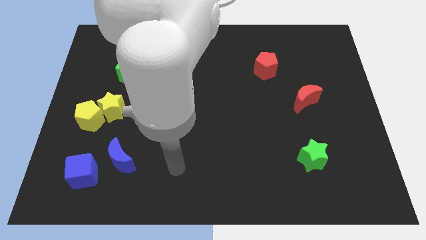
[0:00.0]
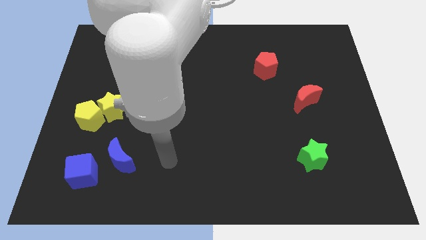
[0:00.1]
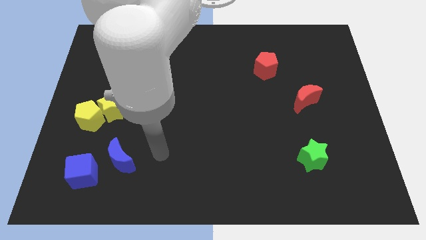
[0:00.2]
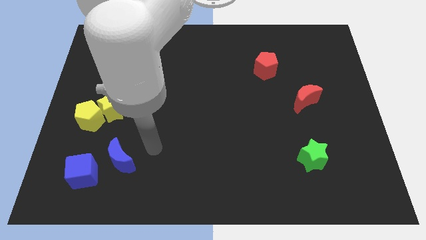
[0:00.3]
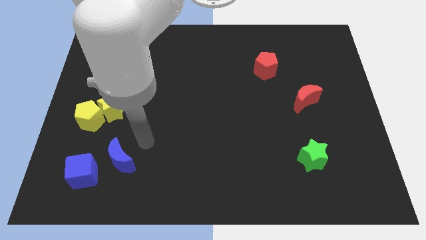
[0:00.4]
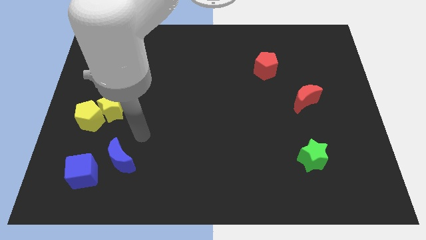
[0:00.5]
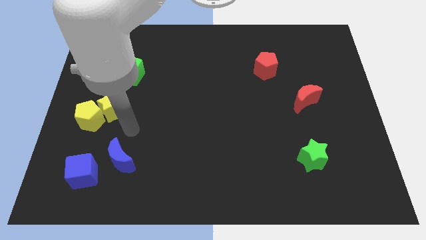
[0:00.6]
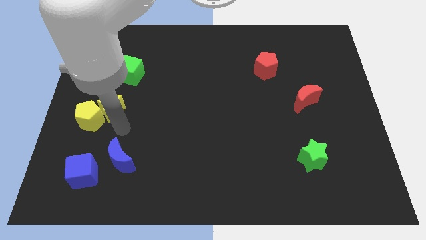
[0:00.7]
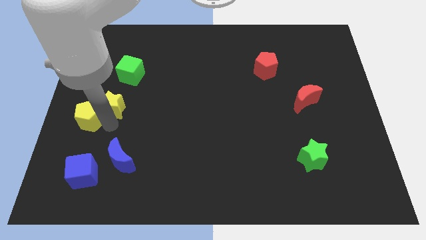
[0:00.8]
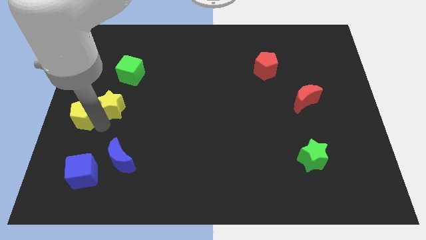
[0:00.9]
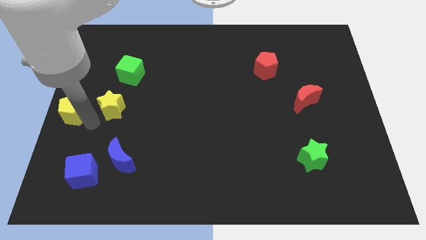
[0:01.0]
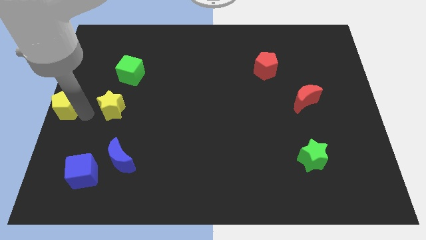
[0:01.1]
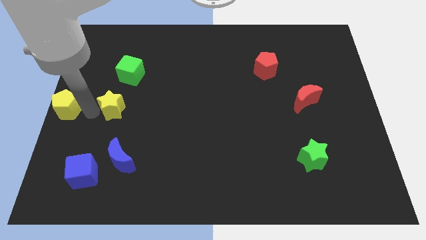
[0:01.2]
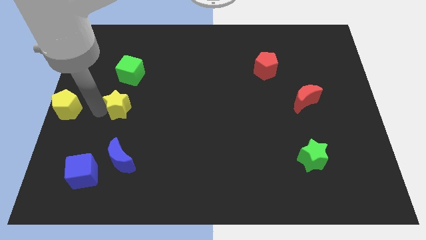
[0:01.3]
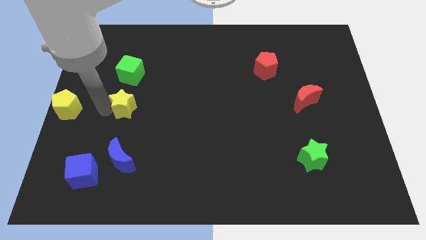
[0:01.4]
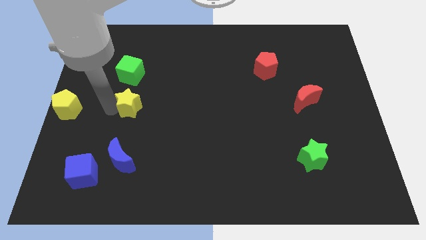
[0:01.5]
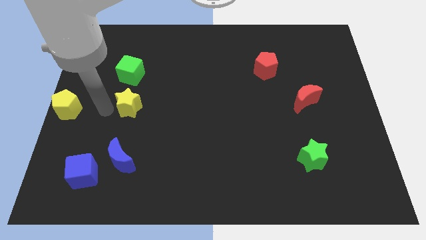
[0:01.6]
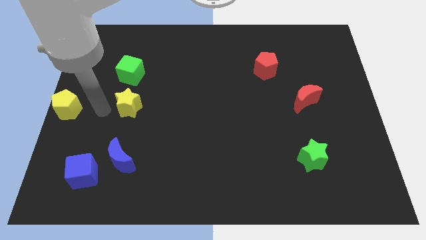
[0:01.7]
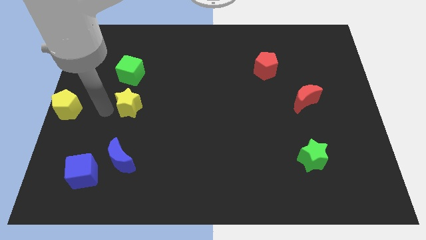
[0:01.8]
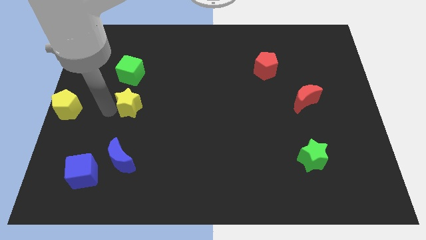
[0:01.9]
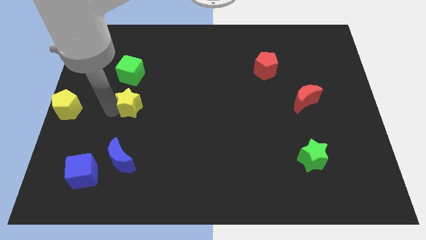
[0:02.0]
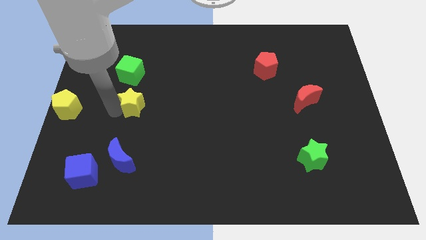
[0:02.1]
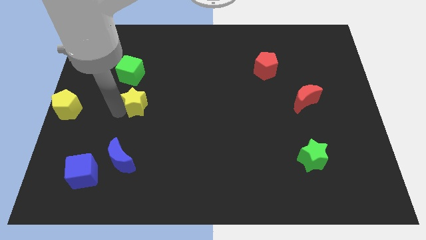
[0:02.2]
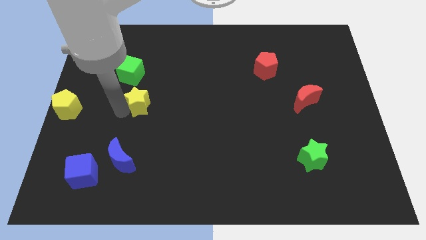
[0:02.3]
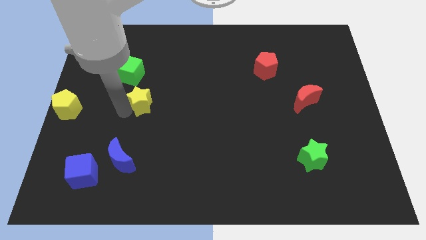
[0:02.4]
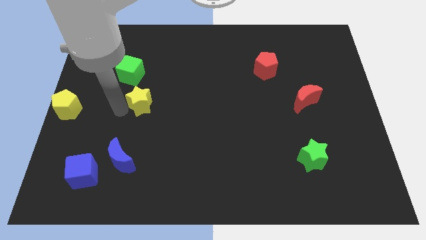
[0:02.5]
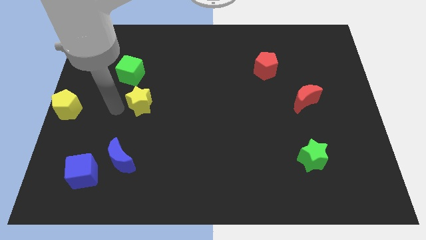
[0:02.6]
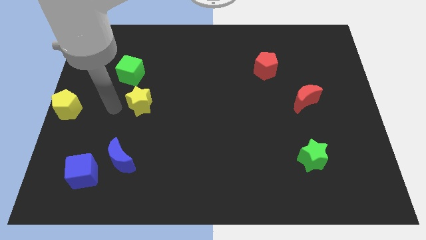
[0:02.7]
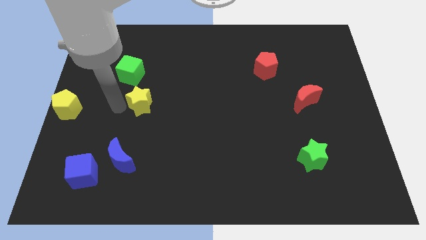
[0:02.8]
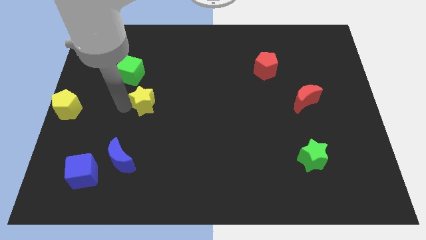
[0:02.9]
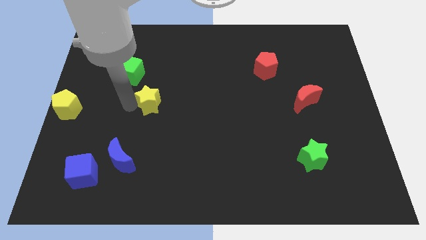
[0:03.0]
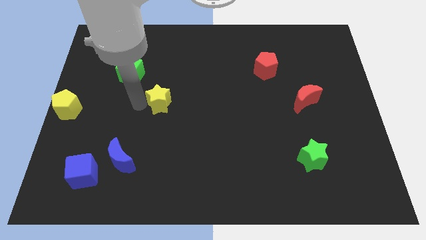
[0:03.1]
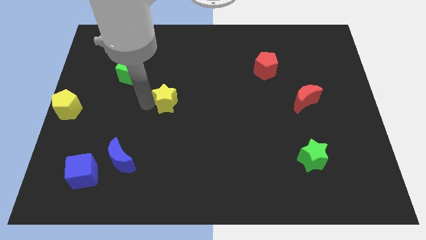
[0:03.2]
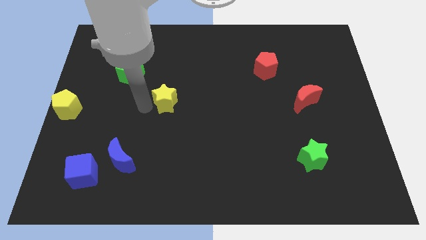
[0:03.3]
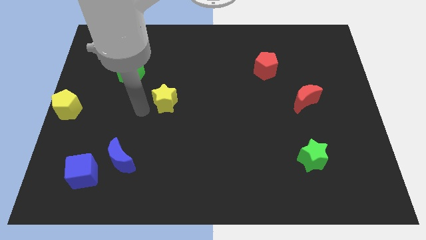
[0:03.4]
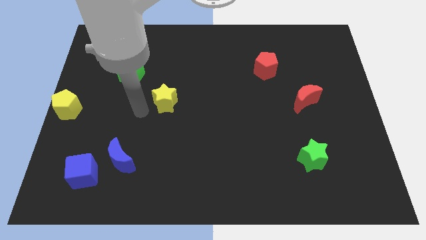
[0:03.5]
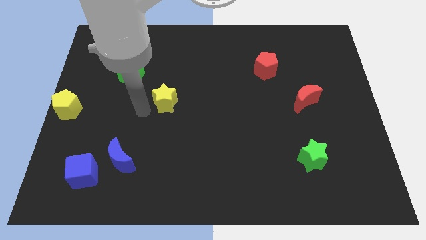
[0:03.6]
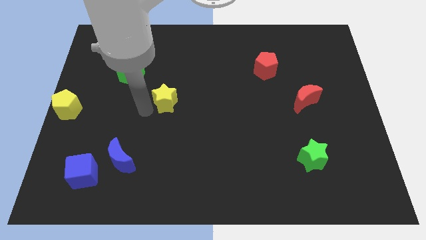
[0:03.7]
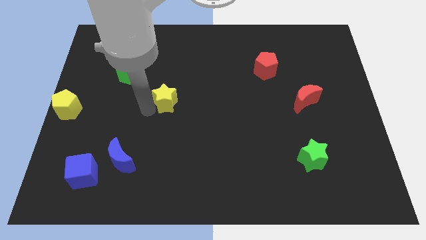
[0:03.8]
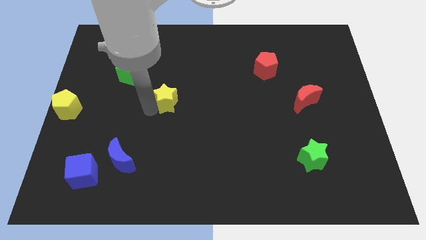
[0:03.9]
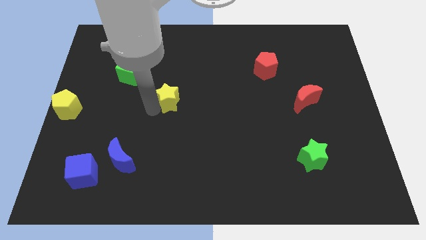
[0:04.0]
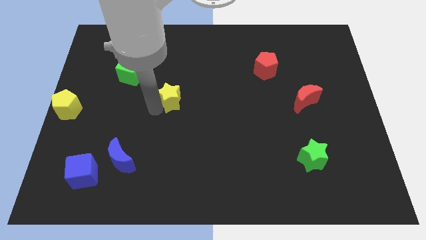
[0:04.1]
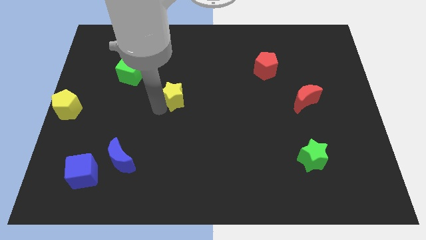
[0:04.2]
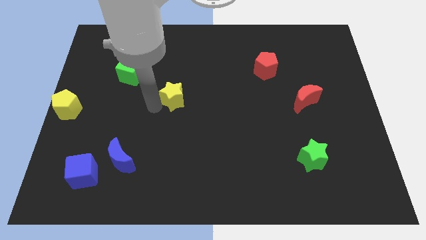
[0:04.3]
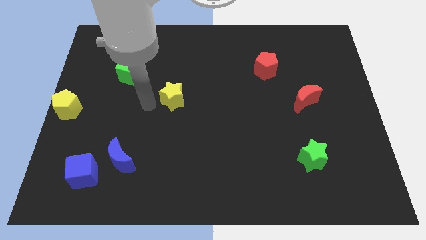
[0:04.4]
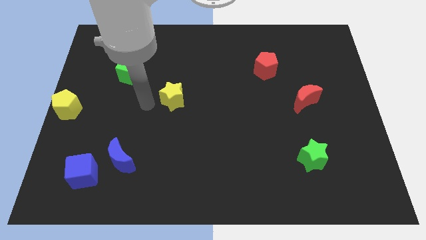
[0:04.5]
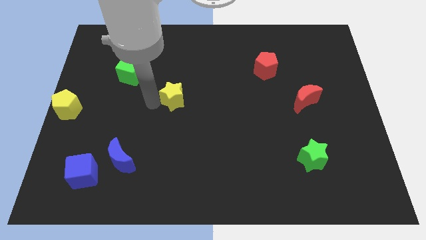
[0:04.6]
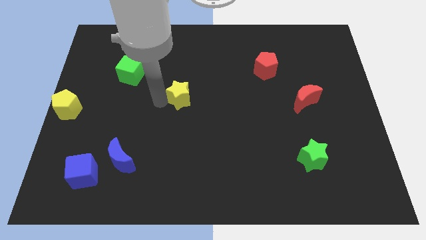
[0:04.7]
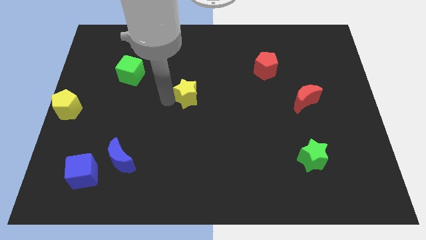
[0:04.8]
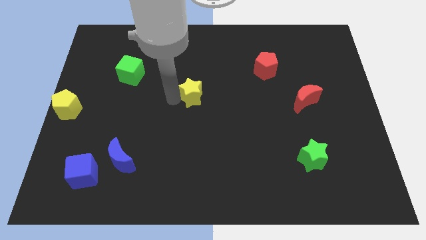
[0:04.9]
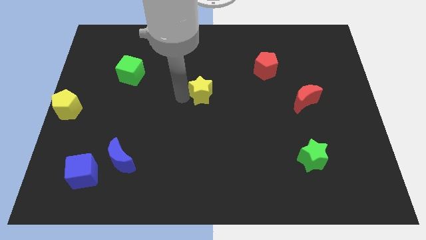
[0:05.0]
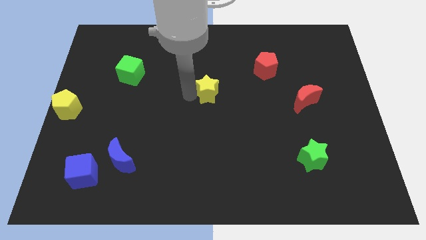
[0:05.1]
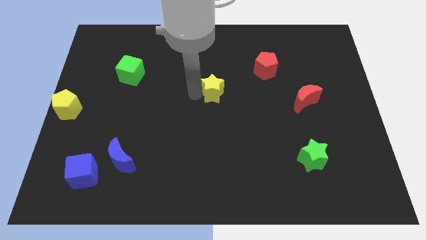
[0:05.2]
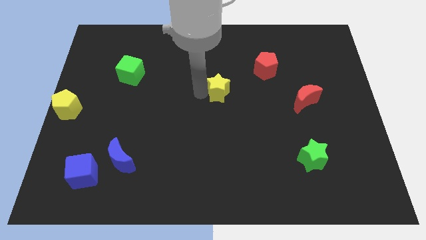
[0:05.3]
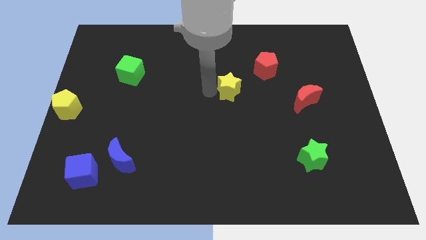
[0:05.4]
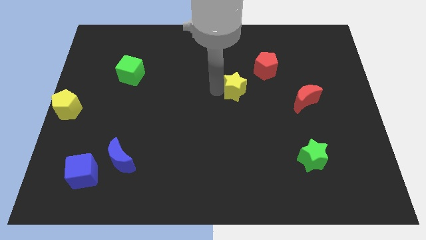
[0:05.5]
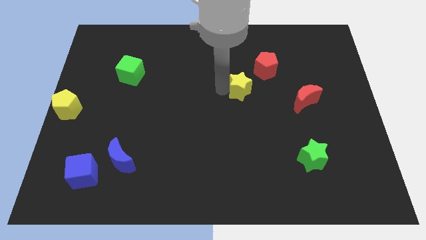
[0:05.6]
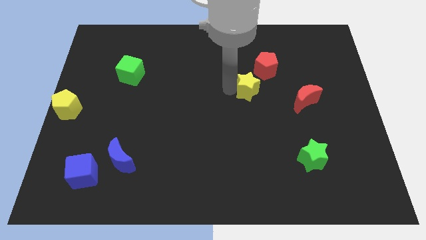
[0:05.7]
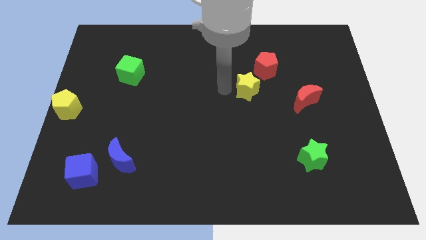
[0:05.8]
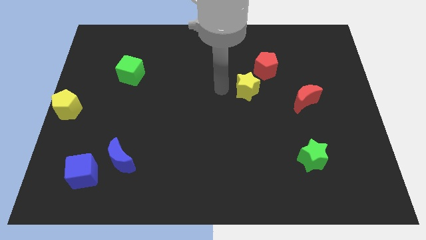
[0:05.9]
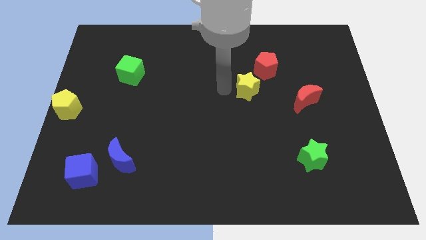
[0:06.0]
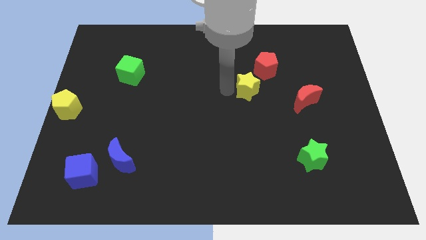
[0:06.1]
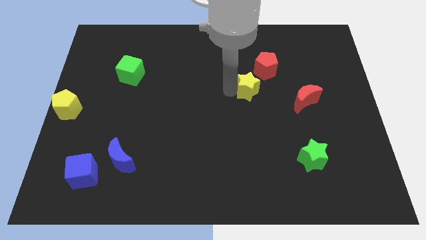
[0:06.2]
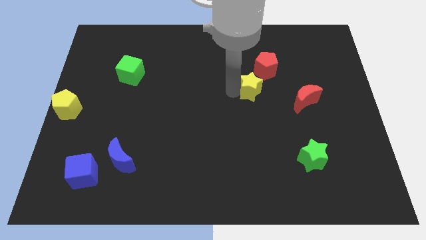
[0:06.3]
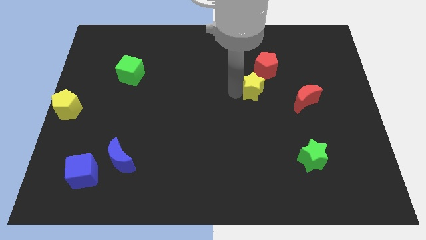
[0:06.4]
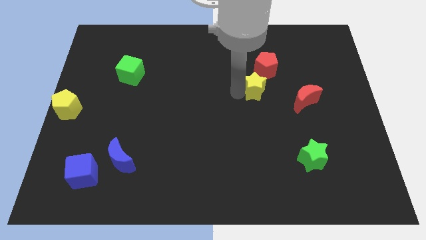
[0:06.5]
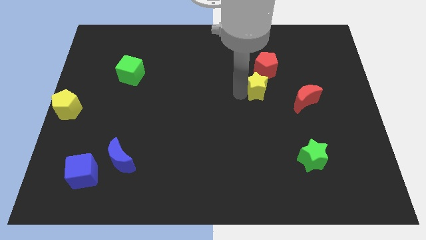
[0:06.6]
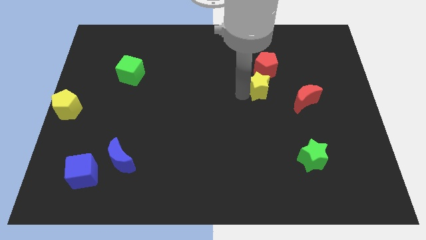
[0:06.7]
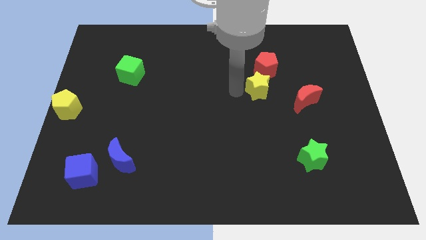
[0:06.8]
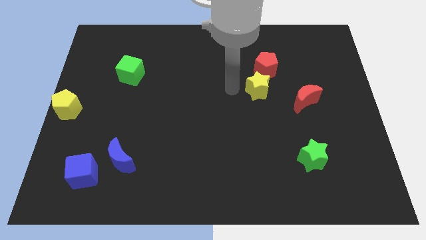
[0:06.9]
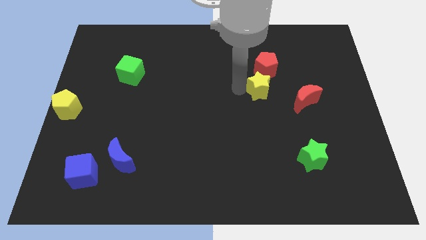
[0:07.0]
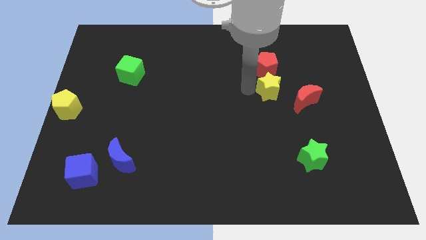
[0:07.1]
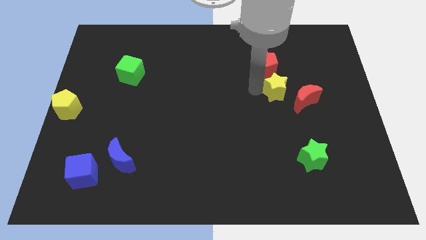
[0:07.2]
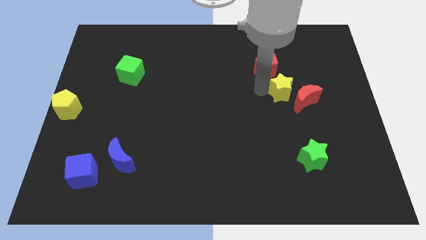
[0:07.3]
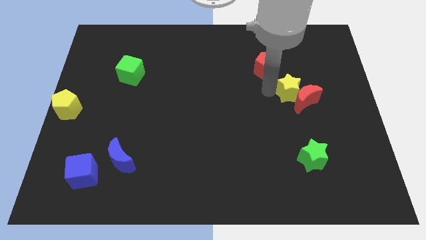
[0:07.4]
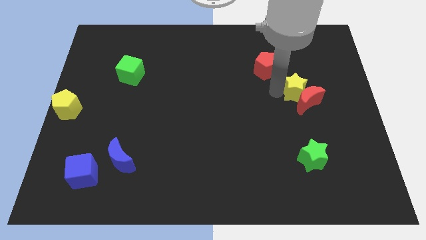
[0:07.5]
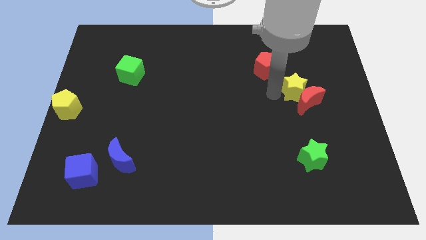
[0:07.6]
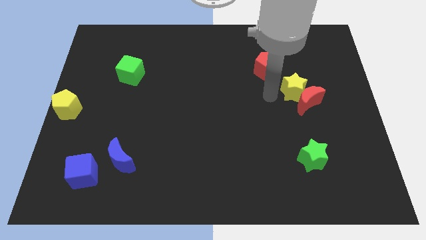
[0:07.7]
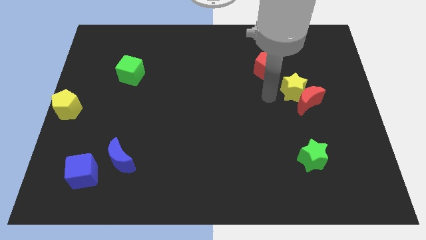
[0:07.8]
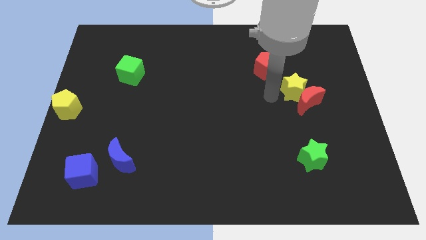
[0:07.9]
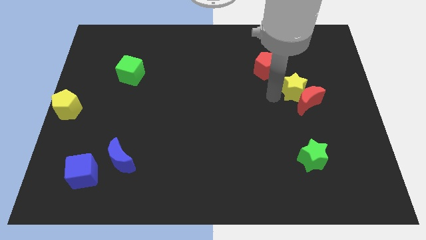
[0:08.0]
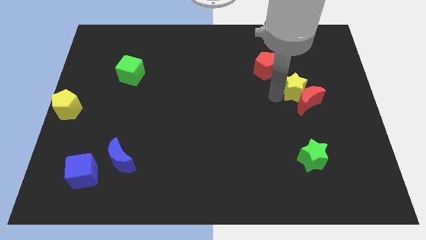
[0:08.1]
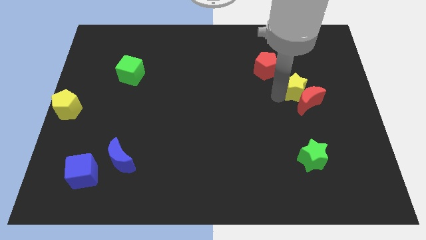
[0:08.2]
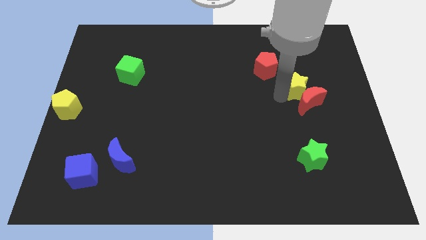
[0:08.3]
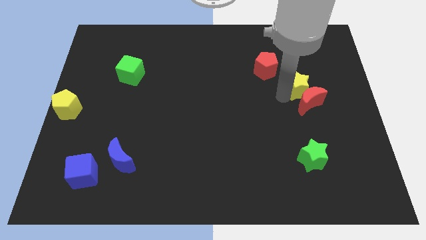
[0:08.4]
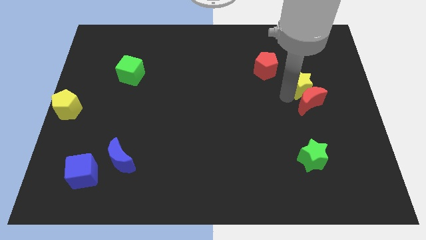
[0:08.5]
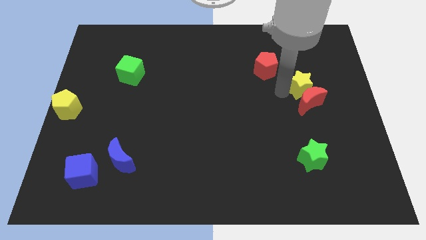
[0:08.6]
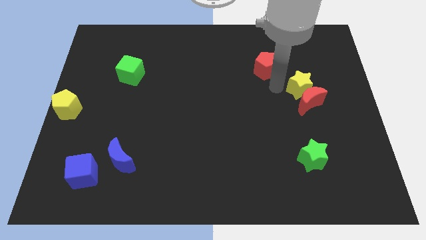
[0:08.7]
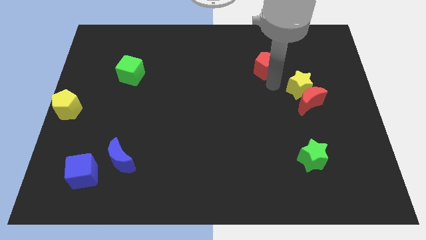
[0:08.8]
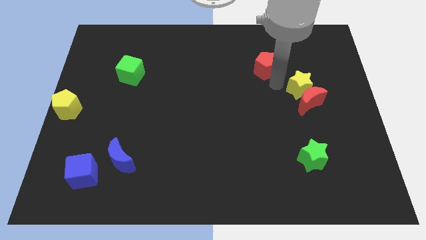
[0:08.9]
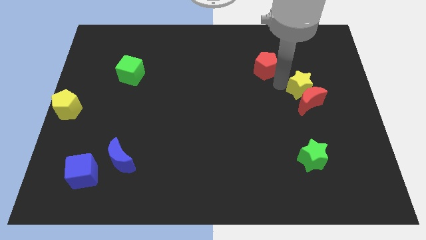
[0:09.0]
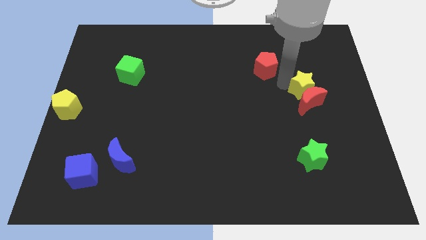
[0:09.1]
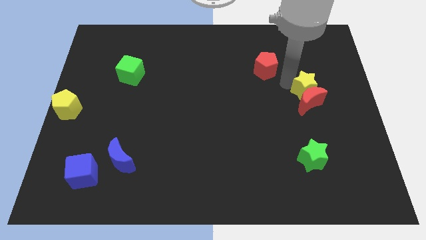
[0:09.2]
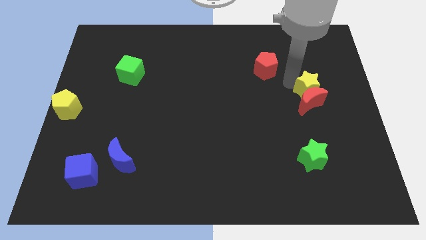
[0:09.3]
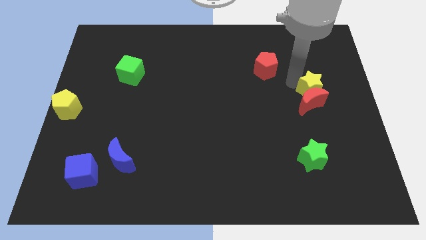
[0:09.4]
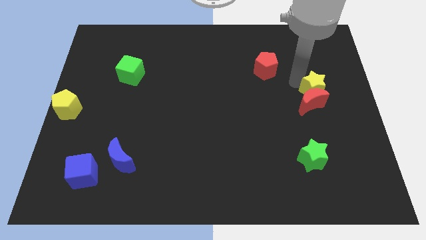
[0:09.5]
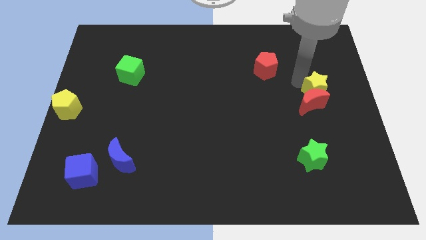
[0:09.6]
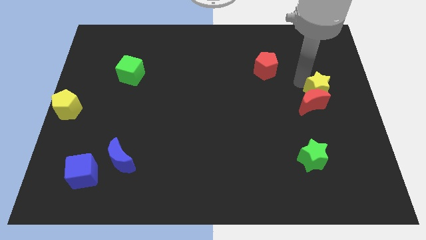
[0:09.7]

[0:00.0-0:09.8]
push the yellow star to the right side of the board
